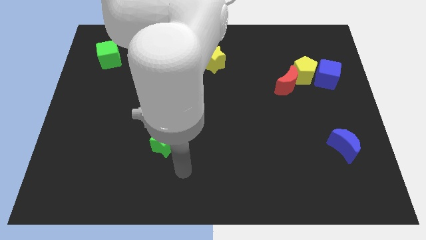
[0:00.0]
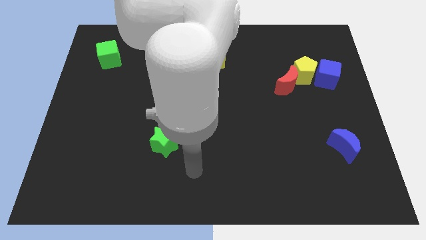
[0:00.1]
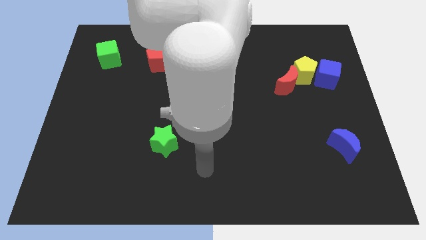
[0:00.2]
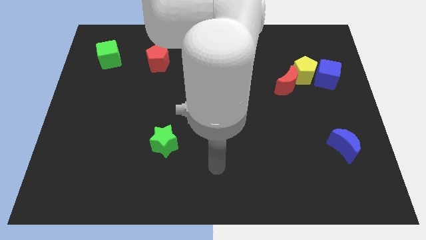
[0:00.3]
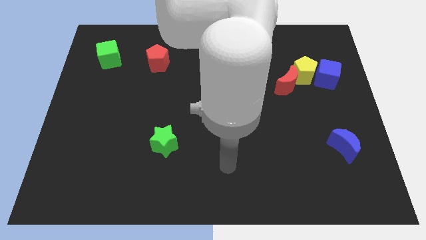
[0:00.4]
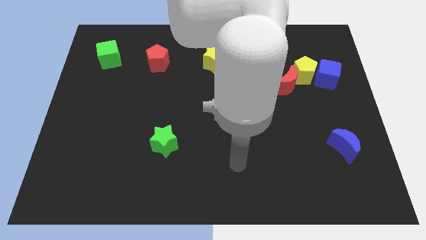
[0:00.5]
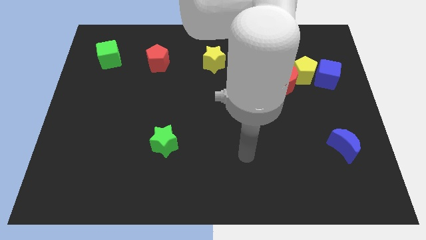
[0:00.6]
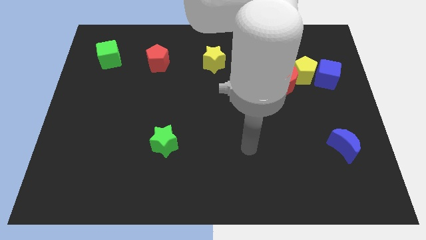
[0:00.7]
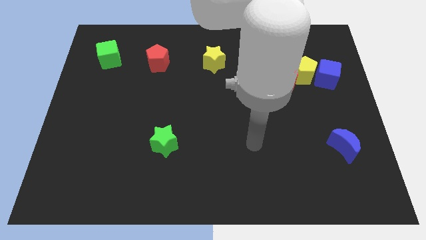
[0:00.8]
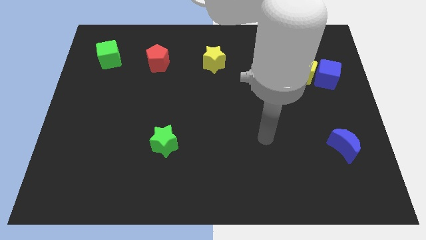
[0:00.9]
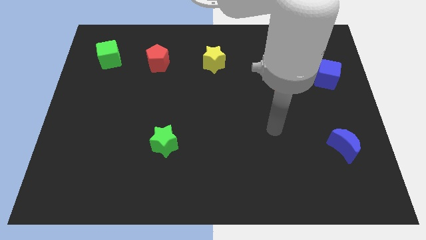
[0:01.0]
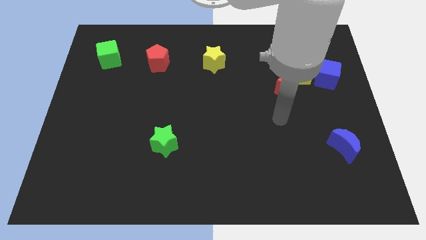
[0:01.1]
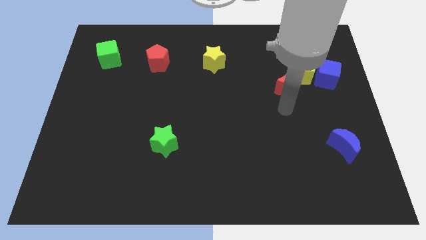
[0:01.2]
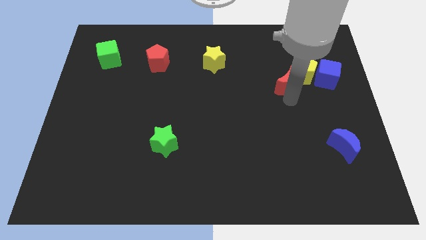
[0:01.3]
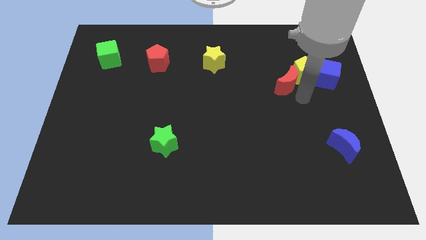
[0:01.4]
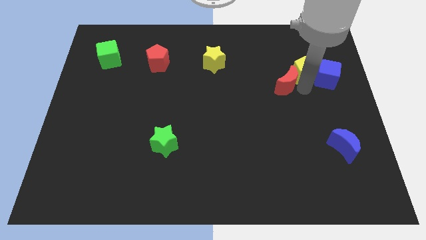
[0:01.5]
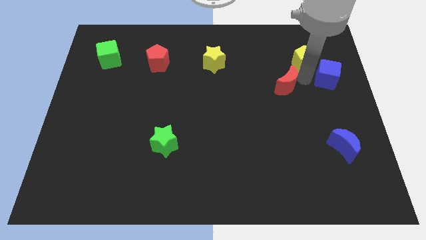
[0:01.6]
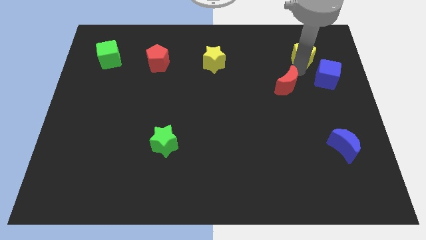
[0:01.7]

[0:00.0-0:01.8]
pull the red moon apart from the yellow pentagon

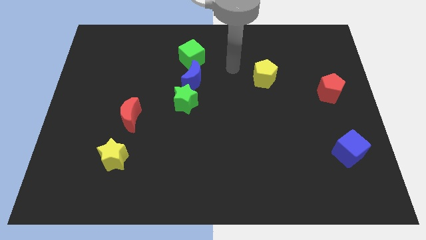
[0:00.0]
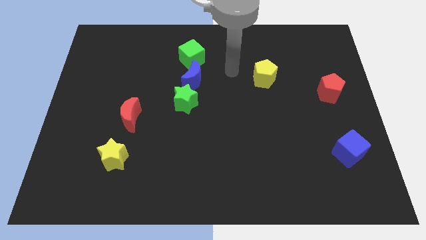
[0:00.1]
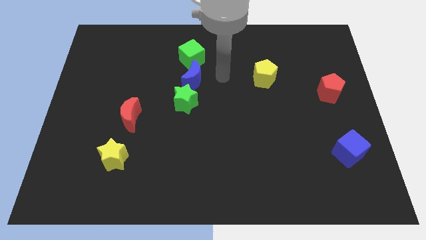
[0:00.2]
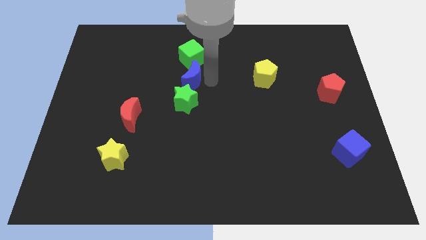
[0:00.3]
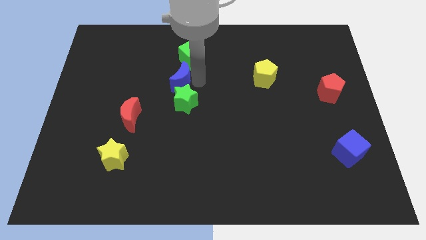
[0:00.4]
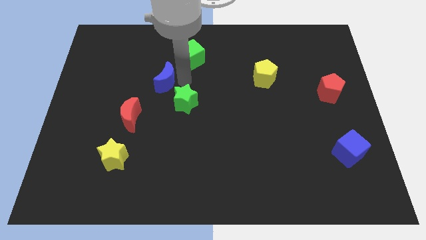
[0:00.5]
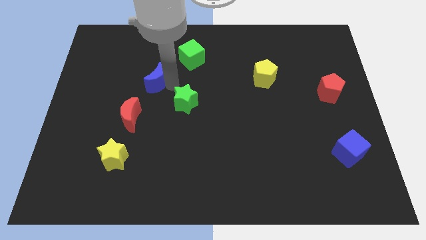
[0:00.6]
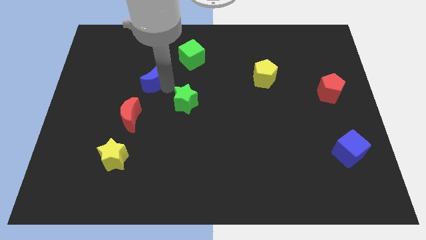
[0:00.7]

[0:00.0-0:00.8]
pull the green star apart from the blue moon

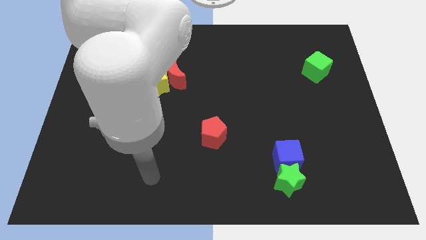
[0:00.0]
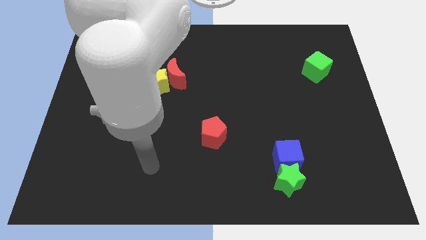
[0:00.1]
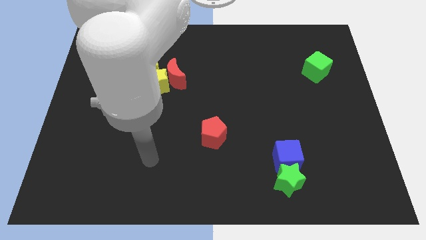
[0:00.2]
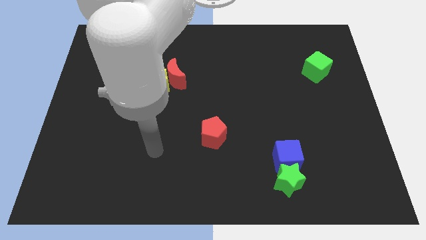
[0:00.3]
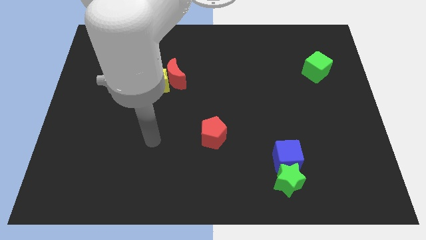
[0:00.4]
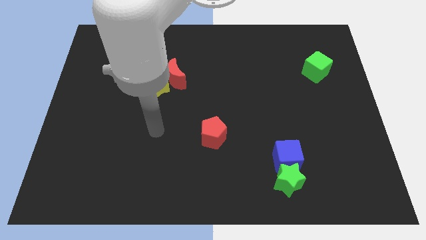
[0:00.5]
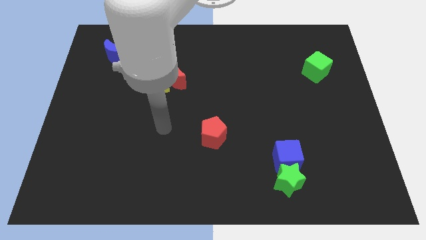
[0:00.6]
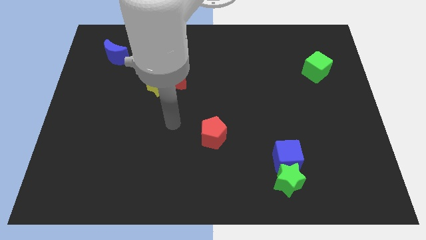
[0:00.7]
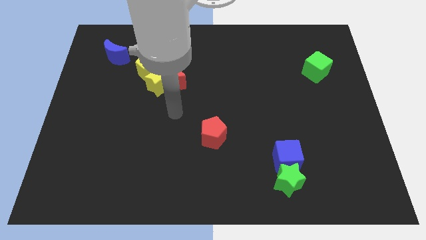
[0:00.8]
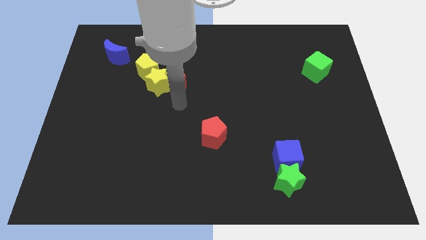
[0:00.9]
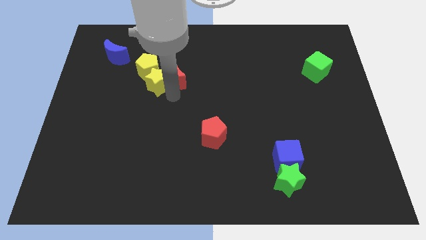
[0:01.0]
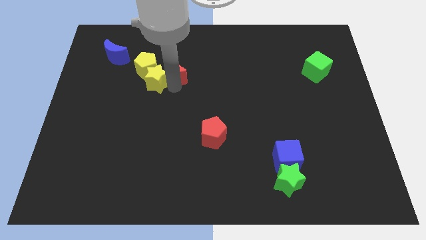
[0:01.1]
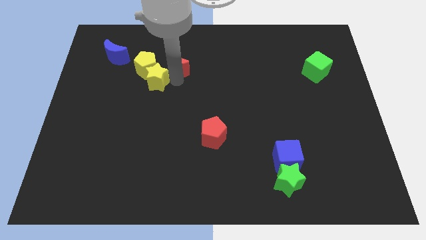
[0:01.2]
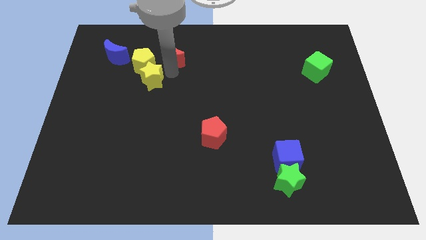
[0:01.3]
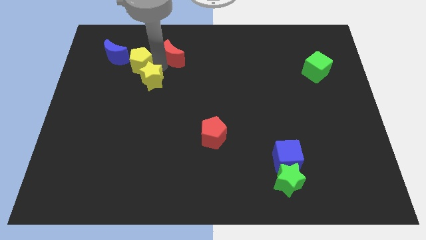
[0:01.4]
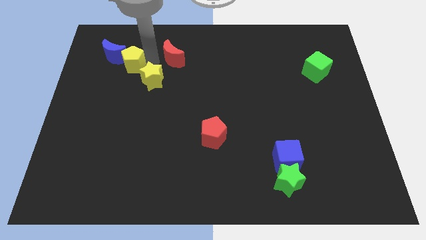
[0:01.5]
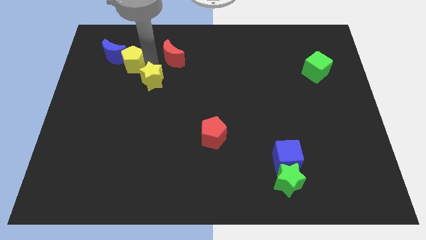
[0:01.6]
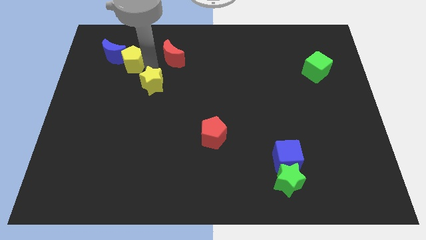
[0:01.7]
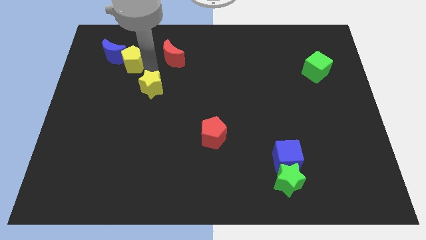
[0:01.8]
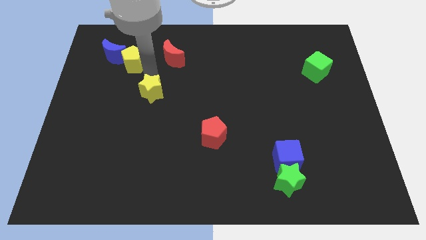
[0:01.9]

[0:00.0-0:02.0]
separate the yellow star from the red moon and yellow pentagon

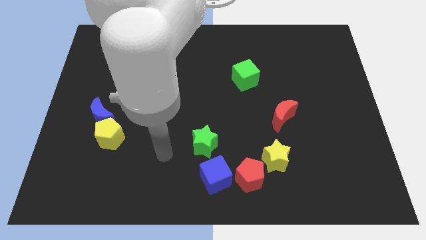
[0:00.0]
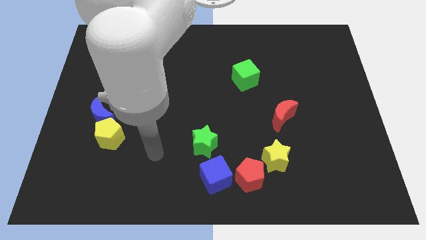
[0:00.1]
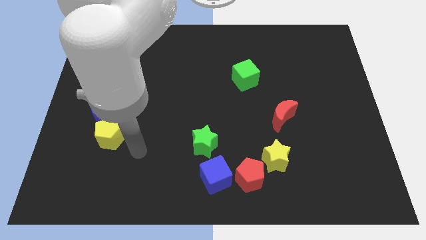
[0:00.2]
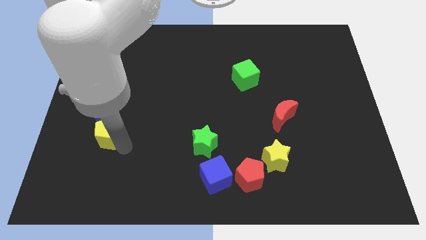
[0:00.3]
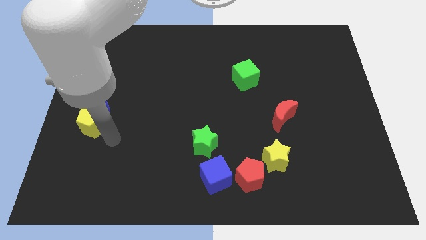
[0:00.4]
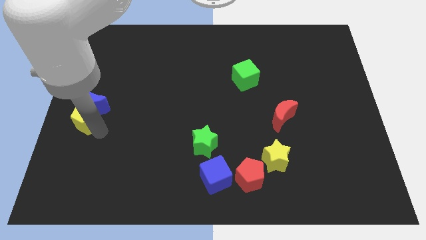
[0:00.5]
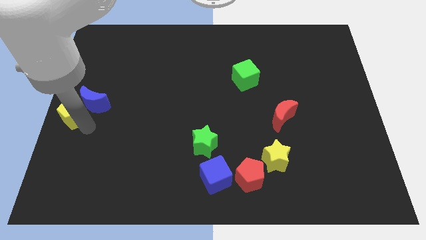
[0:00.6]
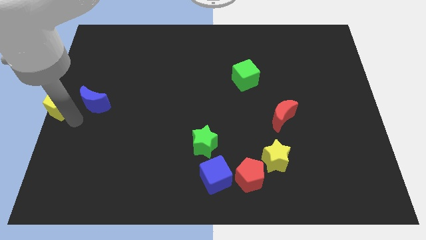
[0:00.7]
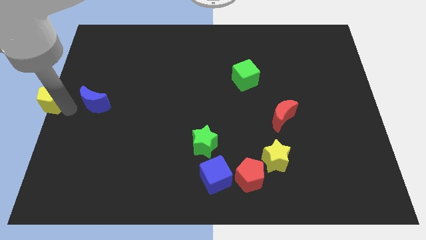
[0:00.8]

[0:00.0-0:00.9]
pull the blue moon apart from the yellow pentagon

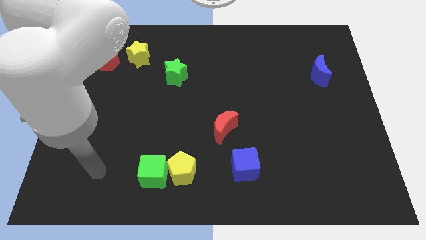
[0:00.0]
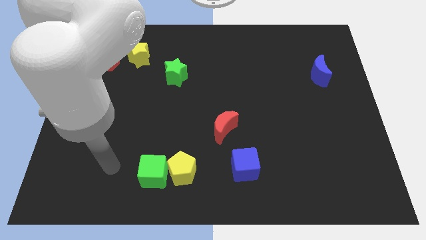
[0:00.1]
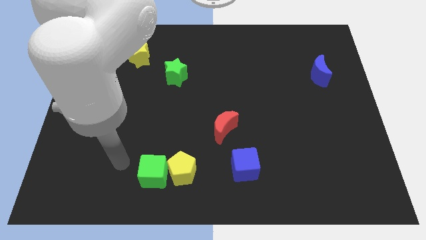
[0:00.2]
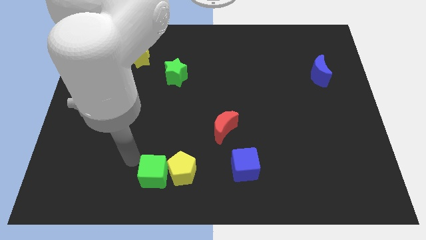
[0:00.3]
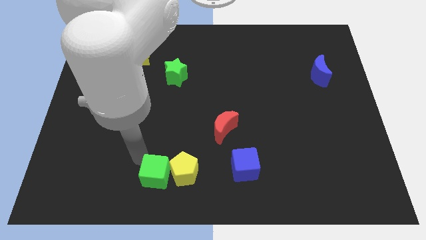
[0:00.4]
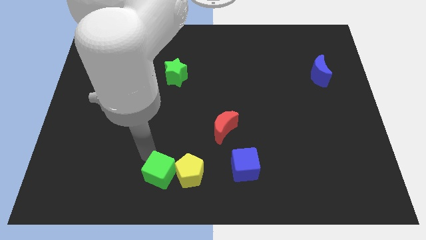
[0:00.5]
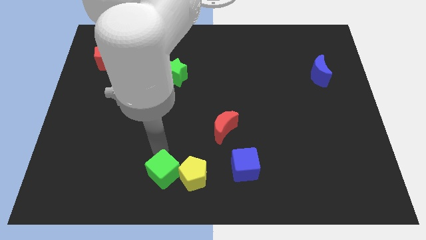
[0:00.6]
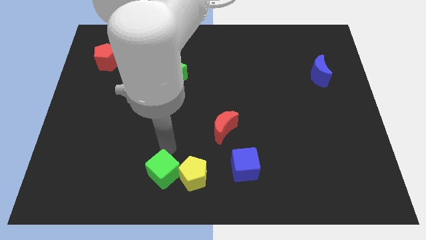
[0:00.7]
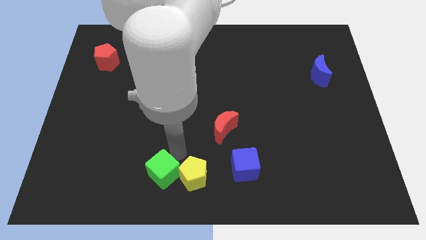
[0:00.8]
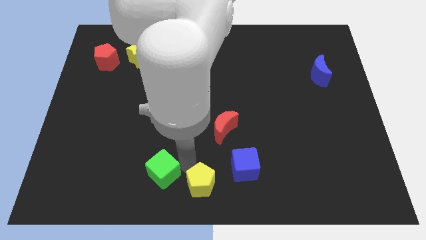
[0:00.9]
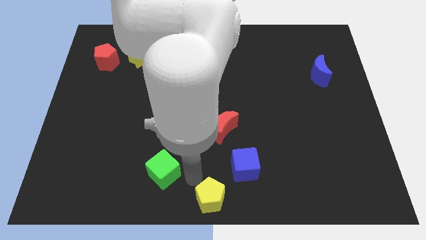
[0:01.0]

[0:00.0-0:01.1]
pull the green cube apart from the yellow pentagon

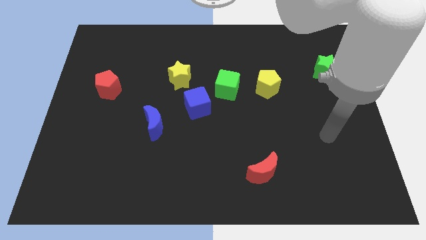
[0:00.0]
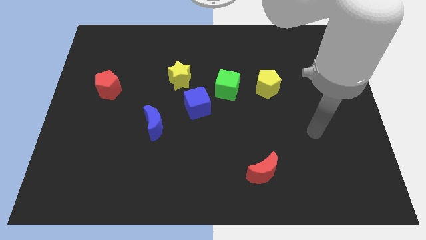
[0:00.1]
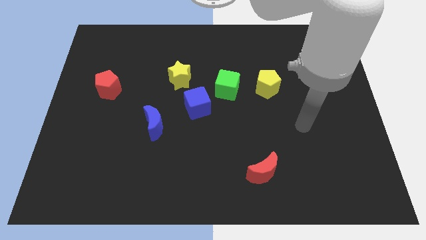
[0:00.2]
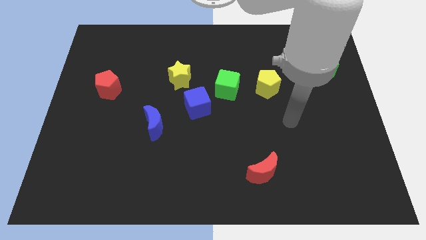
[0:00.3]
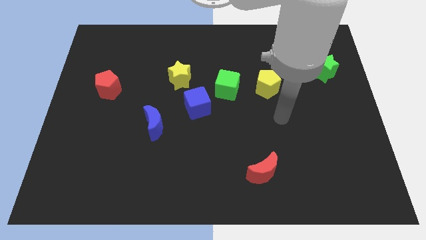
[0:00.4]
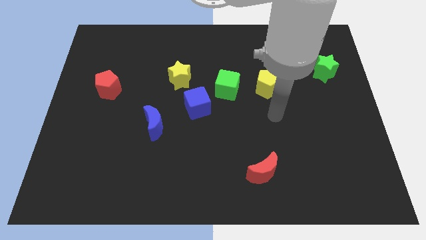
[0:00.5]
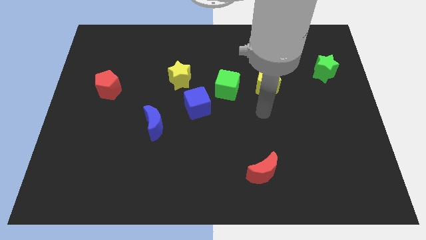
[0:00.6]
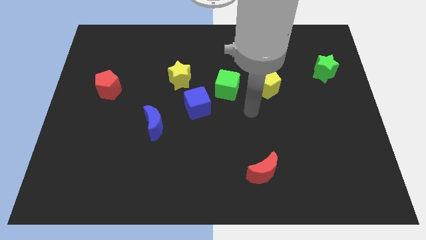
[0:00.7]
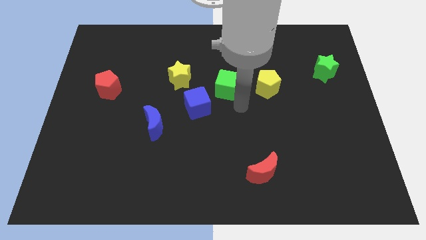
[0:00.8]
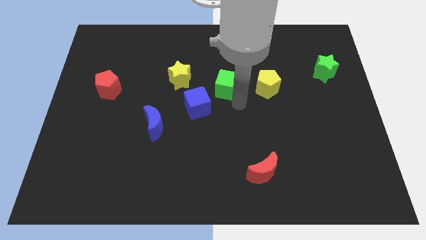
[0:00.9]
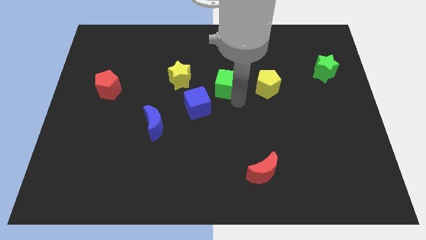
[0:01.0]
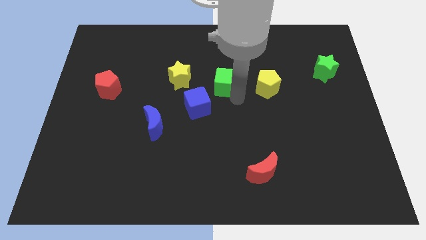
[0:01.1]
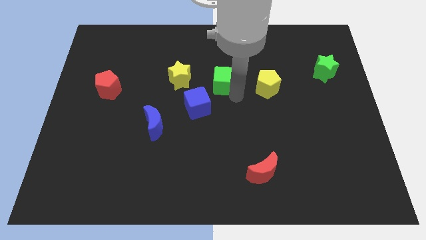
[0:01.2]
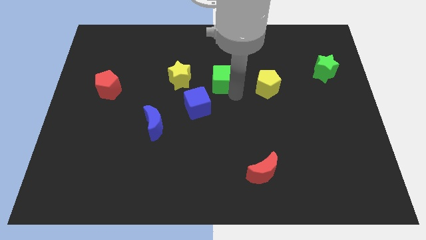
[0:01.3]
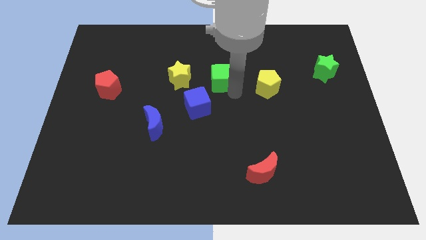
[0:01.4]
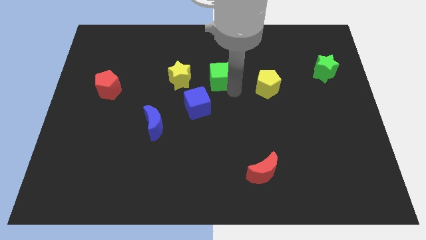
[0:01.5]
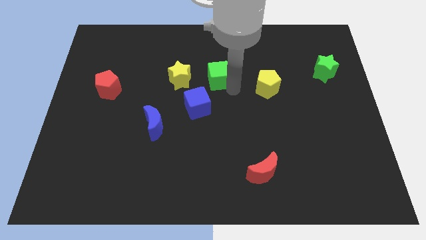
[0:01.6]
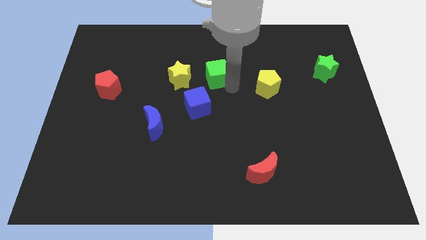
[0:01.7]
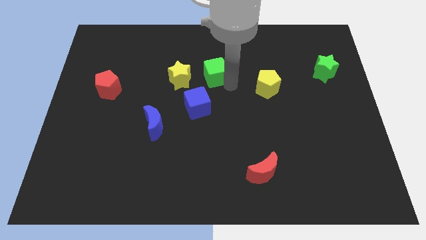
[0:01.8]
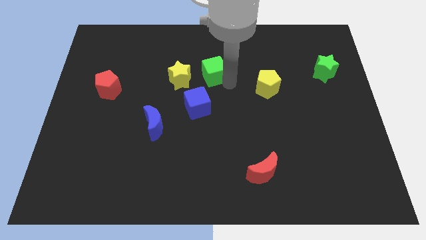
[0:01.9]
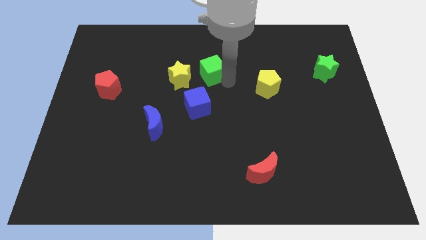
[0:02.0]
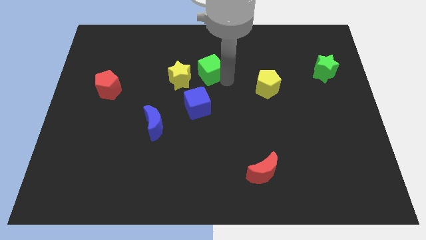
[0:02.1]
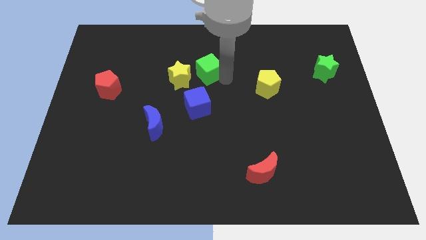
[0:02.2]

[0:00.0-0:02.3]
separate the green cube from the blue cube and yellow pentagon

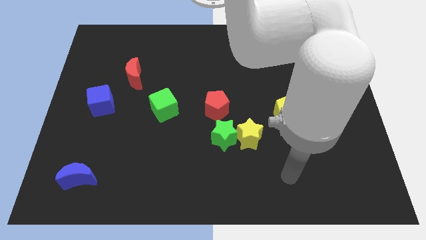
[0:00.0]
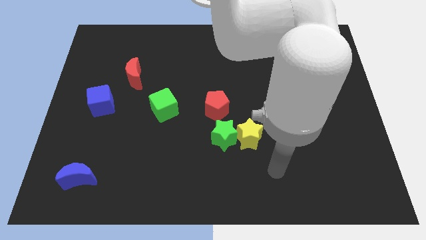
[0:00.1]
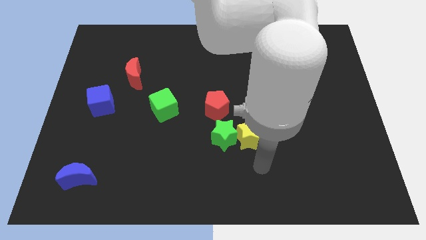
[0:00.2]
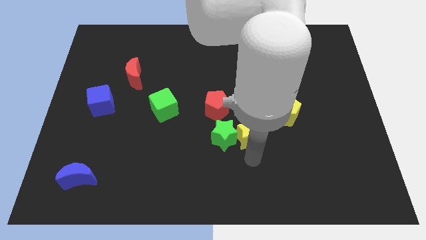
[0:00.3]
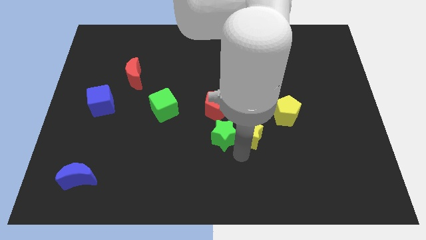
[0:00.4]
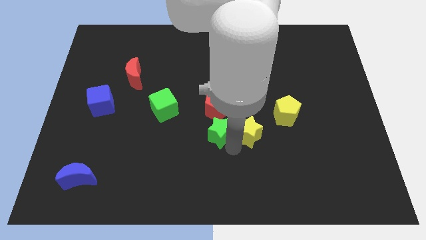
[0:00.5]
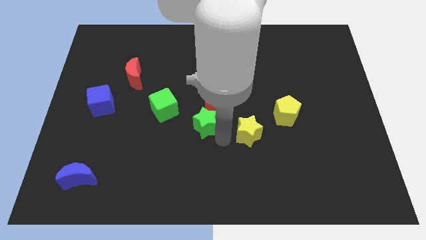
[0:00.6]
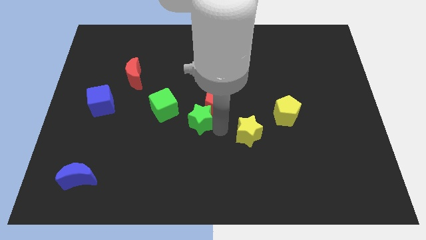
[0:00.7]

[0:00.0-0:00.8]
separate the yellow star from the green star
